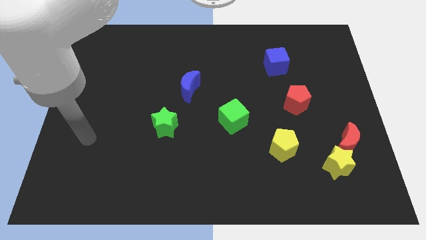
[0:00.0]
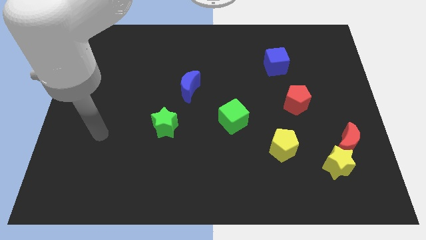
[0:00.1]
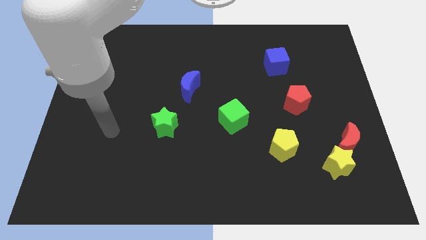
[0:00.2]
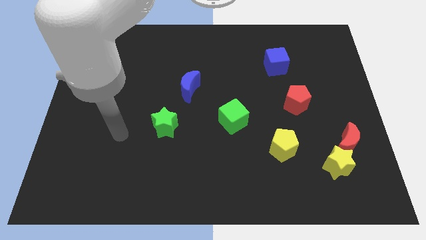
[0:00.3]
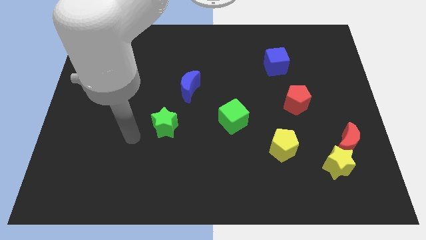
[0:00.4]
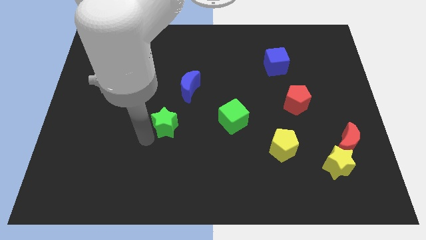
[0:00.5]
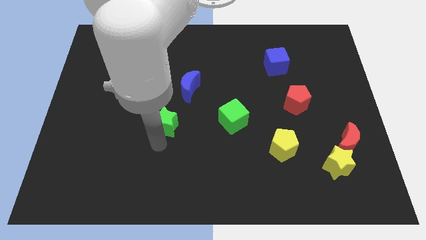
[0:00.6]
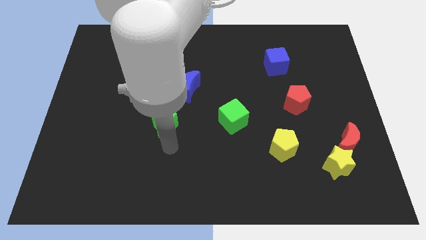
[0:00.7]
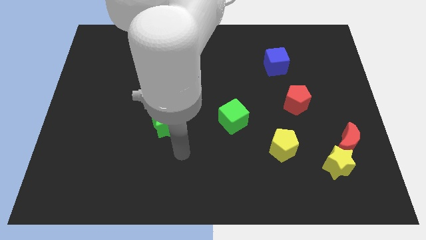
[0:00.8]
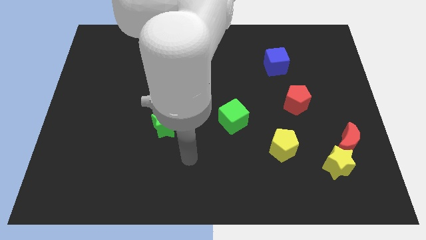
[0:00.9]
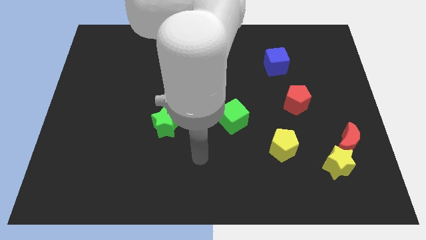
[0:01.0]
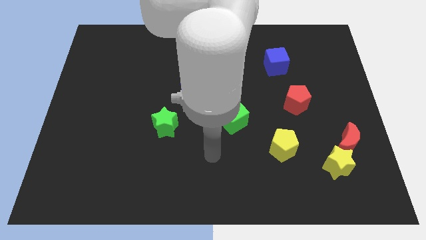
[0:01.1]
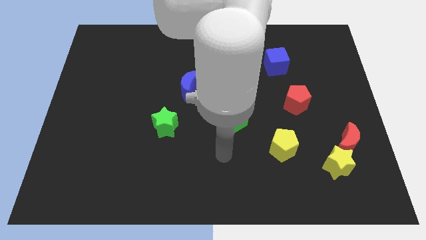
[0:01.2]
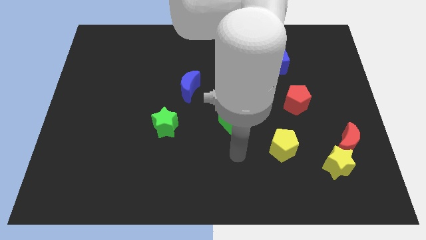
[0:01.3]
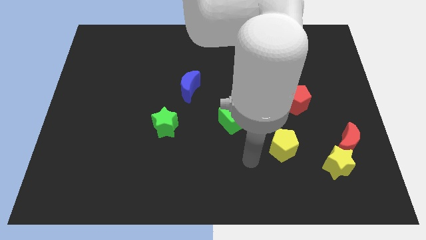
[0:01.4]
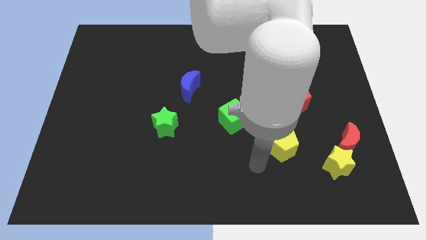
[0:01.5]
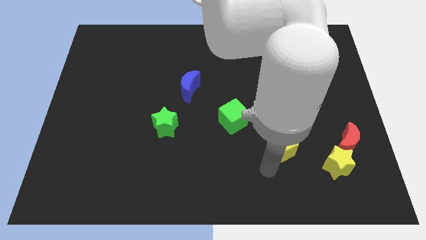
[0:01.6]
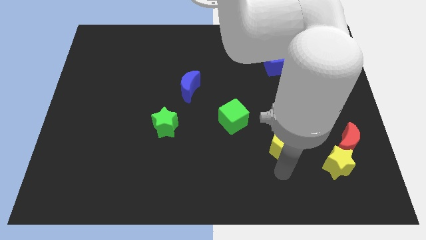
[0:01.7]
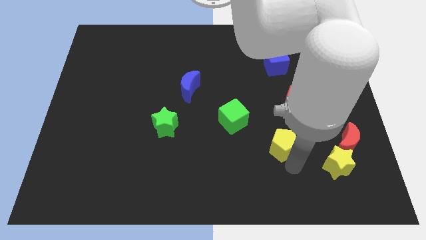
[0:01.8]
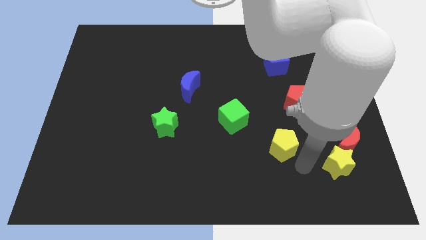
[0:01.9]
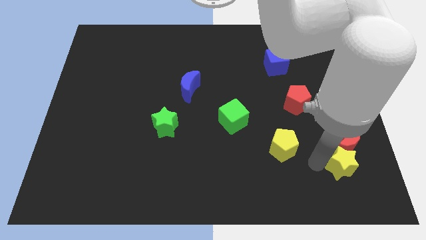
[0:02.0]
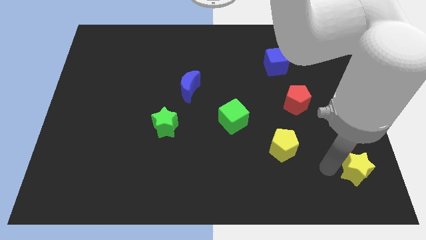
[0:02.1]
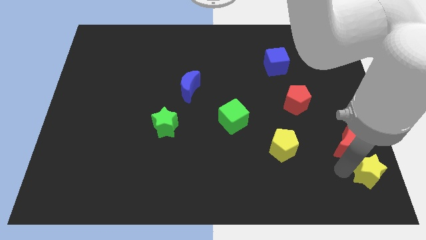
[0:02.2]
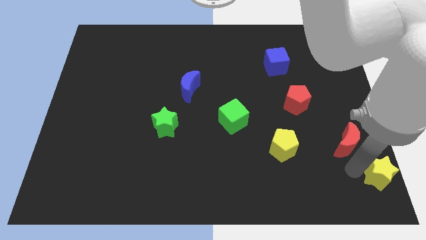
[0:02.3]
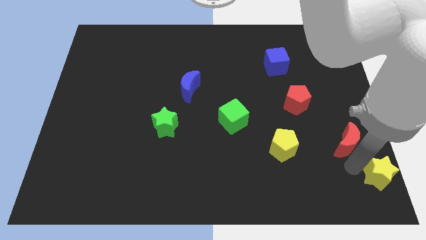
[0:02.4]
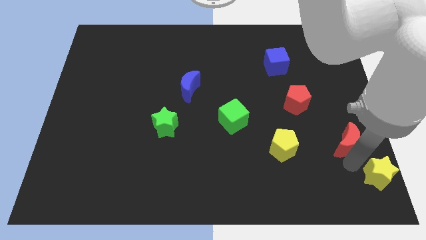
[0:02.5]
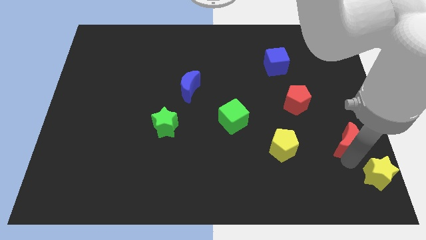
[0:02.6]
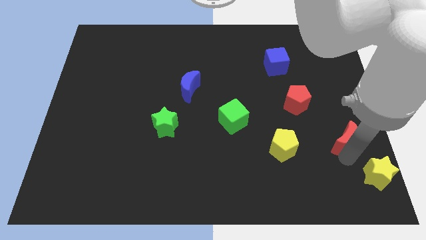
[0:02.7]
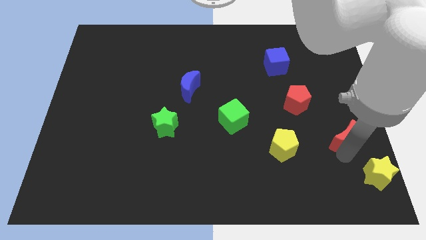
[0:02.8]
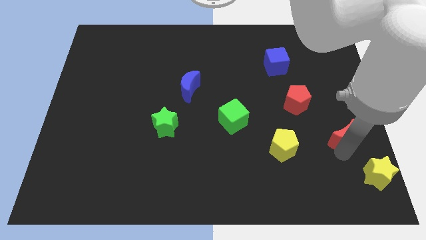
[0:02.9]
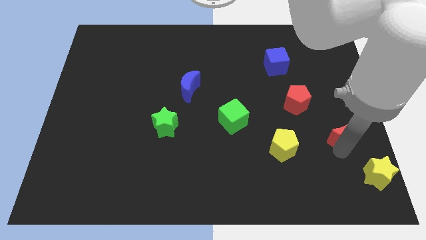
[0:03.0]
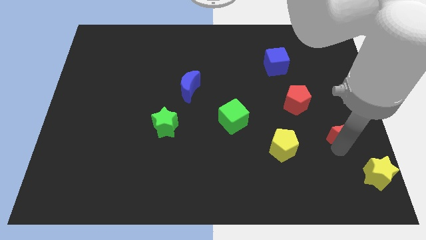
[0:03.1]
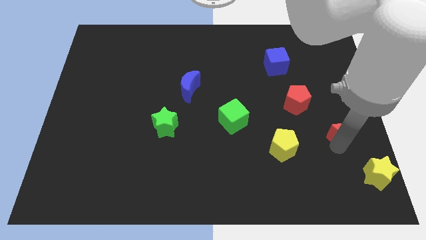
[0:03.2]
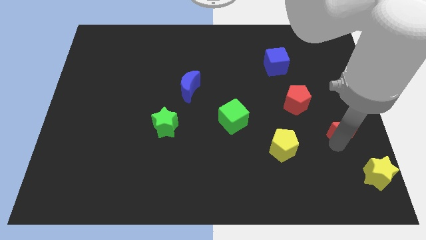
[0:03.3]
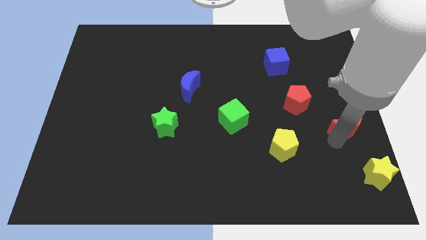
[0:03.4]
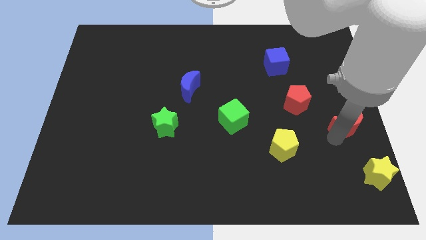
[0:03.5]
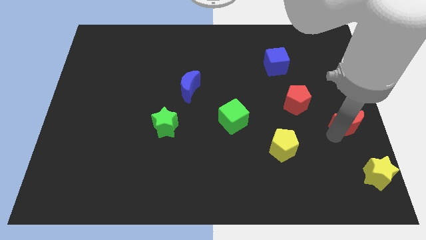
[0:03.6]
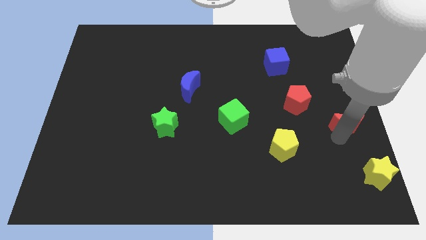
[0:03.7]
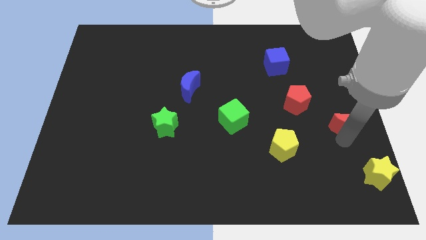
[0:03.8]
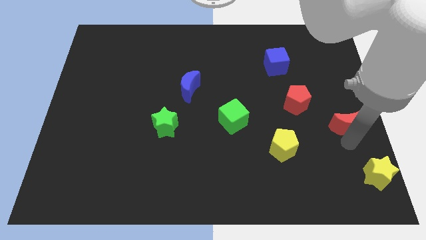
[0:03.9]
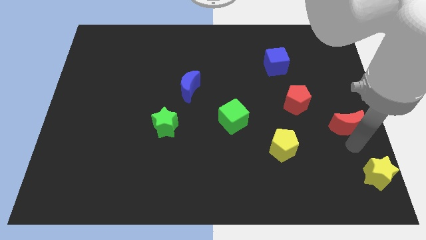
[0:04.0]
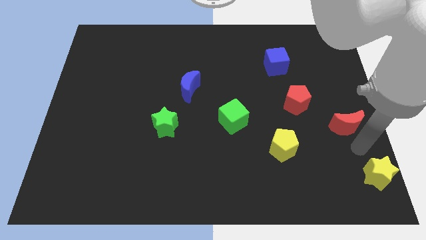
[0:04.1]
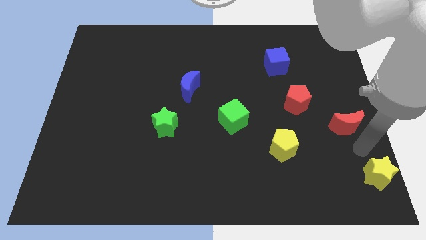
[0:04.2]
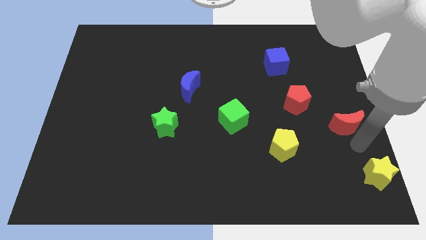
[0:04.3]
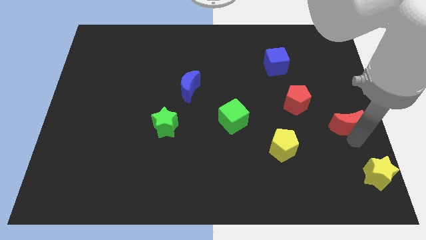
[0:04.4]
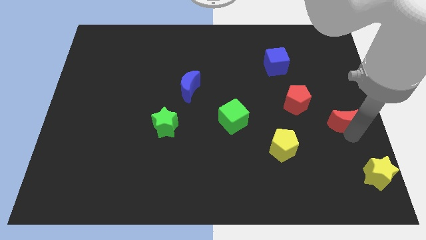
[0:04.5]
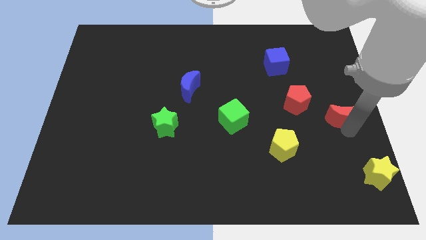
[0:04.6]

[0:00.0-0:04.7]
push the red moon a little upwards

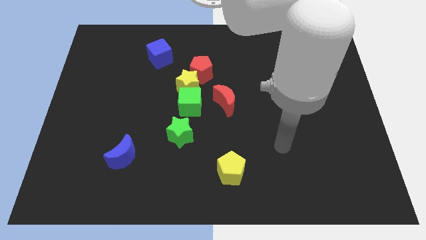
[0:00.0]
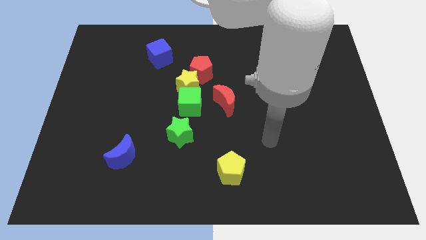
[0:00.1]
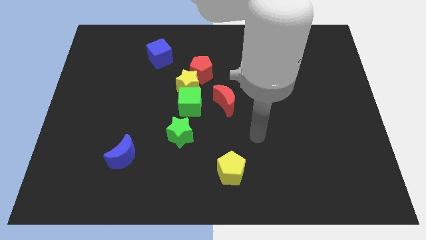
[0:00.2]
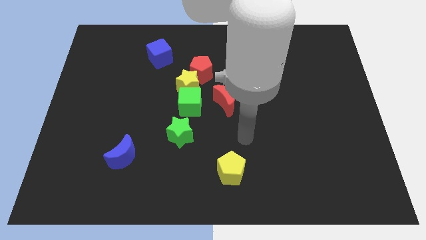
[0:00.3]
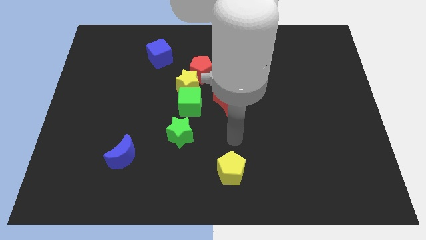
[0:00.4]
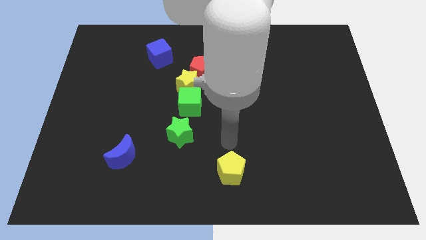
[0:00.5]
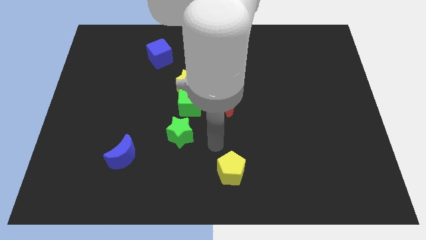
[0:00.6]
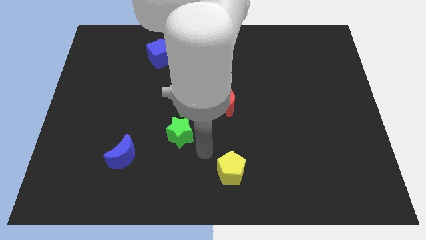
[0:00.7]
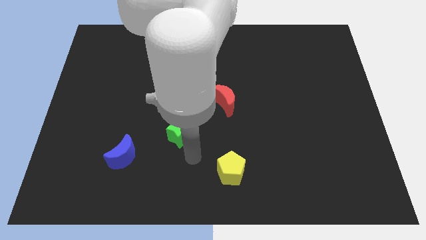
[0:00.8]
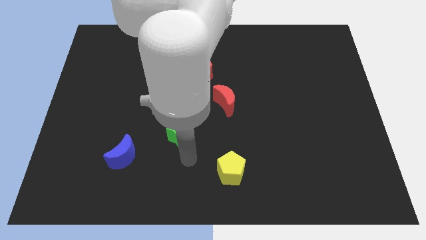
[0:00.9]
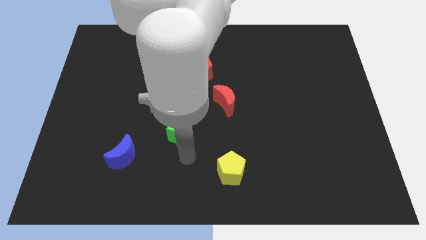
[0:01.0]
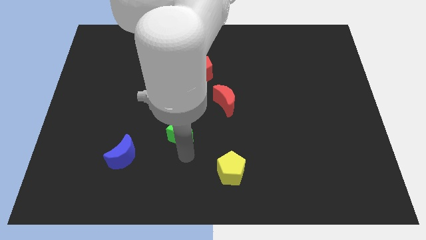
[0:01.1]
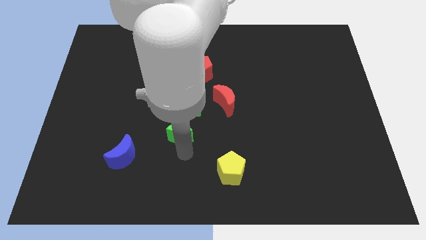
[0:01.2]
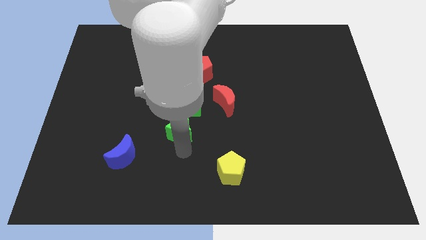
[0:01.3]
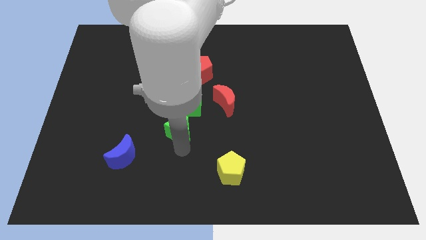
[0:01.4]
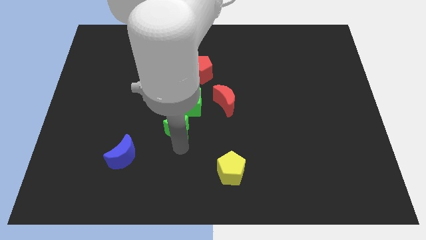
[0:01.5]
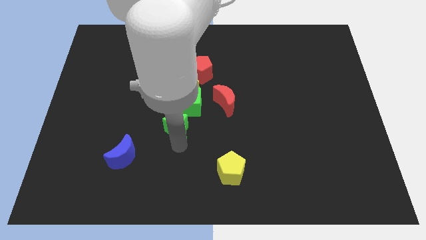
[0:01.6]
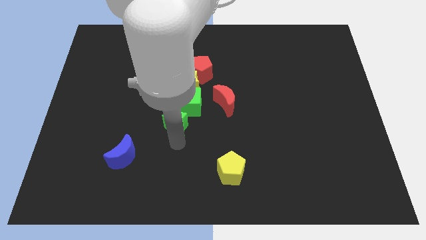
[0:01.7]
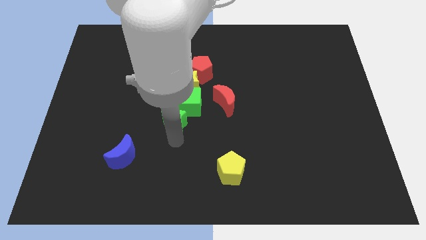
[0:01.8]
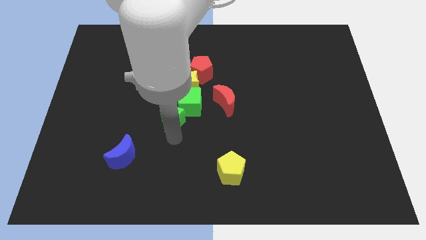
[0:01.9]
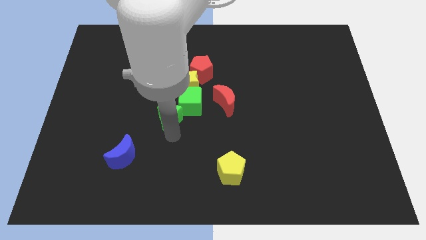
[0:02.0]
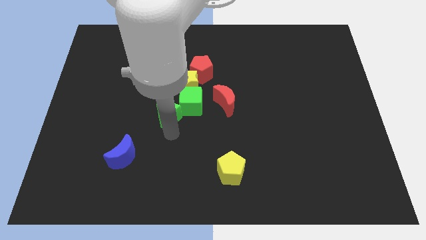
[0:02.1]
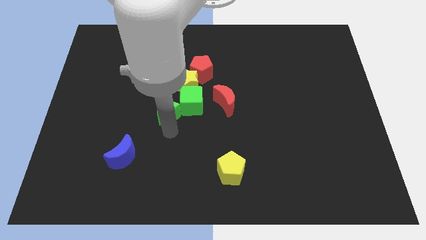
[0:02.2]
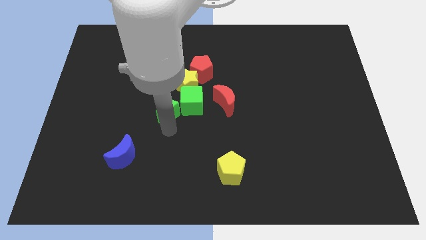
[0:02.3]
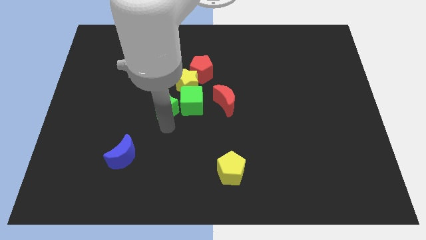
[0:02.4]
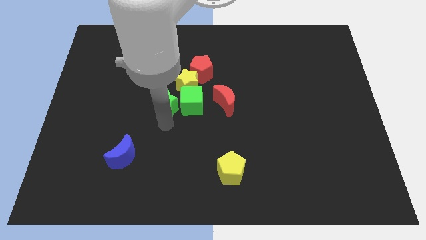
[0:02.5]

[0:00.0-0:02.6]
slightly move the green star up

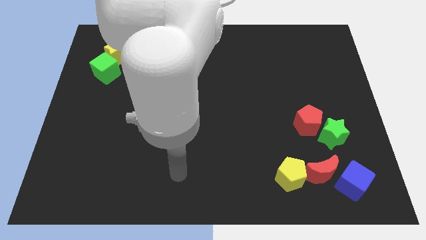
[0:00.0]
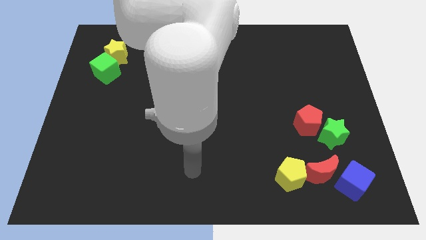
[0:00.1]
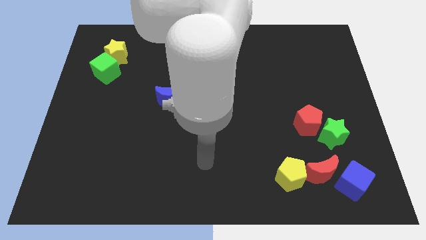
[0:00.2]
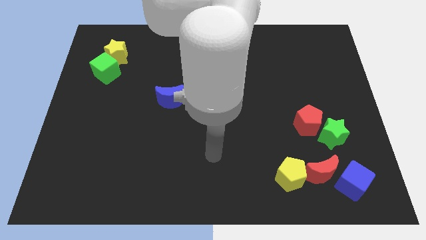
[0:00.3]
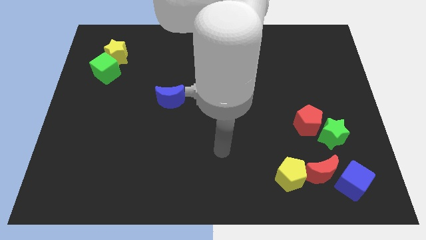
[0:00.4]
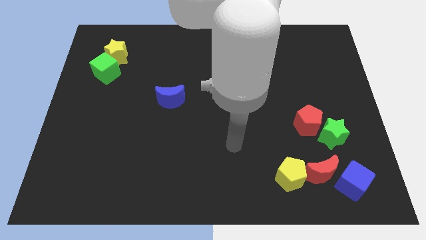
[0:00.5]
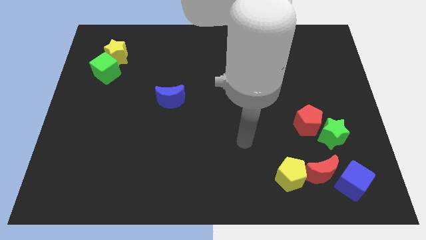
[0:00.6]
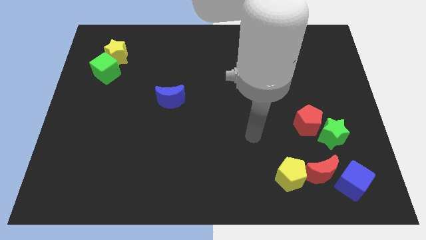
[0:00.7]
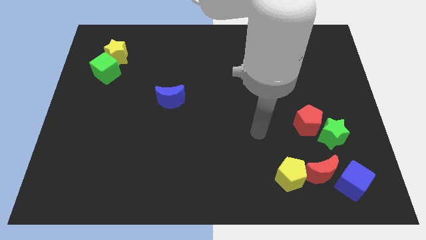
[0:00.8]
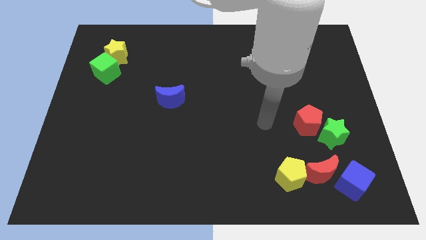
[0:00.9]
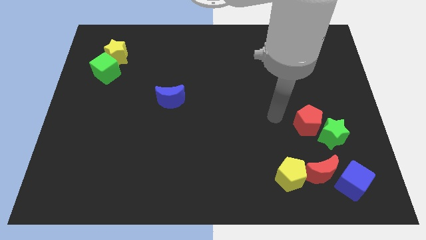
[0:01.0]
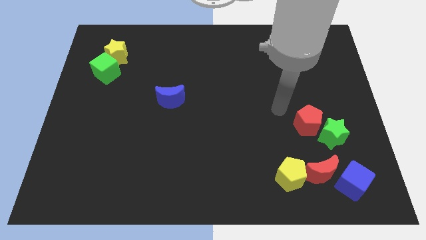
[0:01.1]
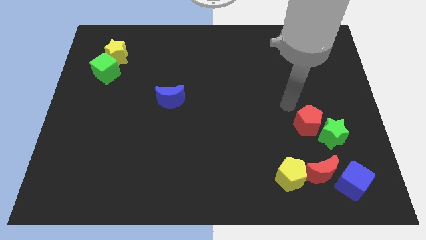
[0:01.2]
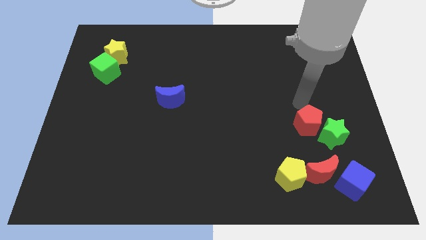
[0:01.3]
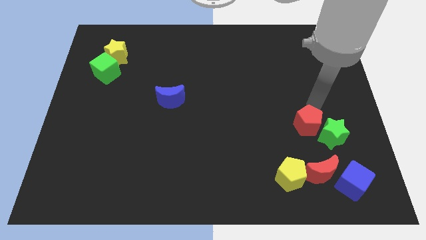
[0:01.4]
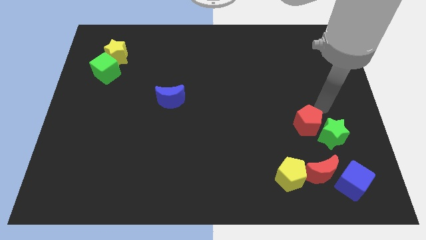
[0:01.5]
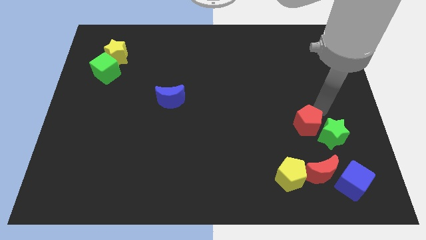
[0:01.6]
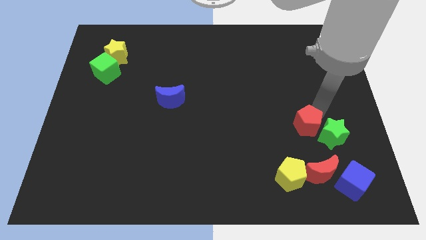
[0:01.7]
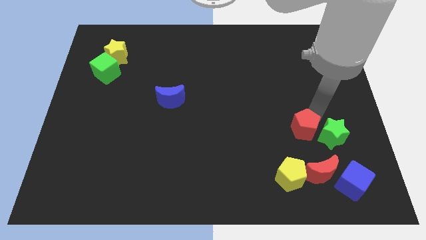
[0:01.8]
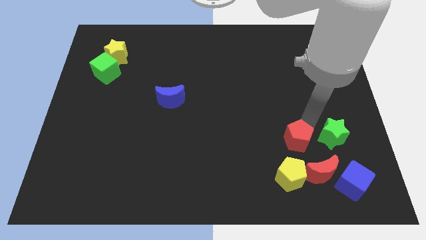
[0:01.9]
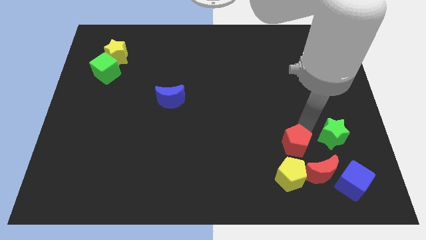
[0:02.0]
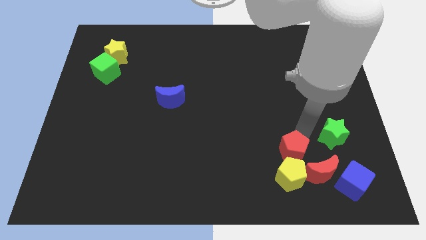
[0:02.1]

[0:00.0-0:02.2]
move the red pentagon somewhat down and left
